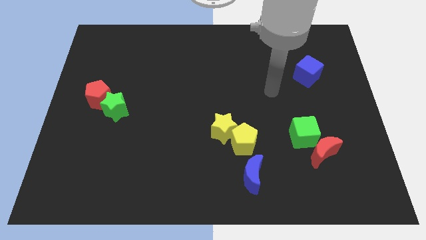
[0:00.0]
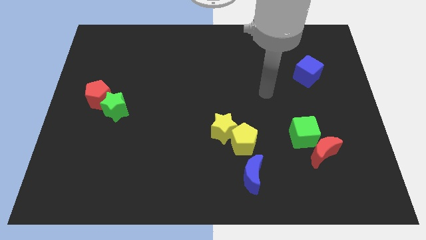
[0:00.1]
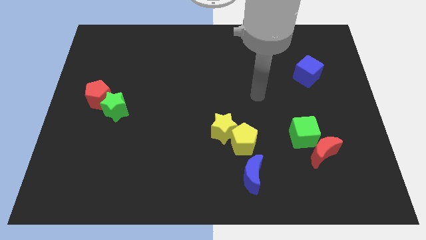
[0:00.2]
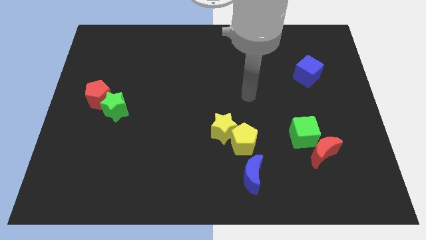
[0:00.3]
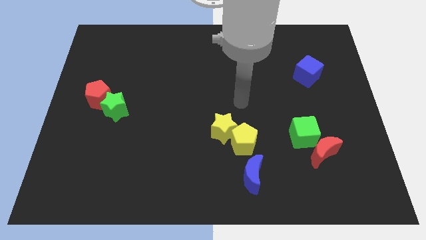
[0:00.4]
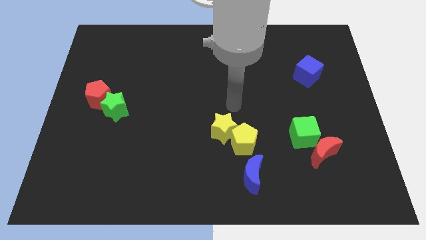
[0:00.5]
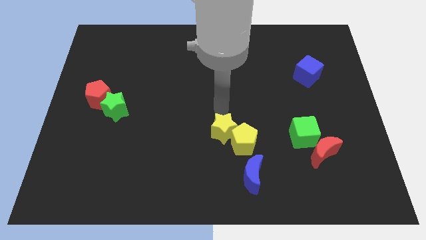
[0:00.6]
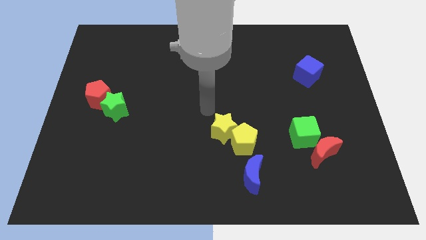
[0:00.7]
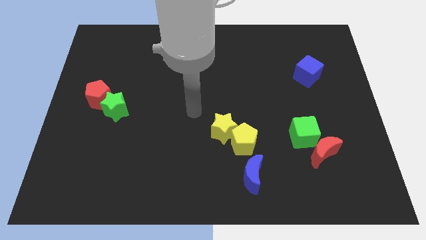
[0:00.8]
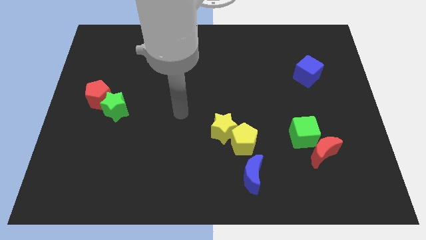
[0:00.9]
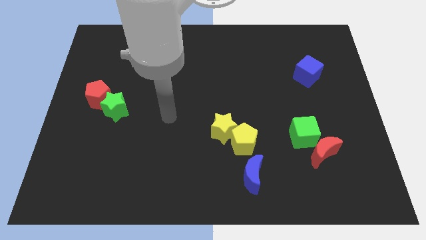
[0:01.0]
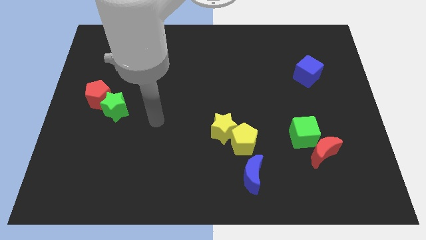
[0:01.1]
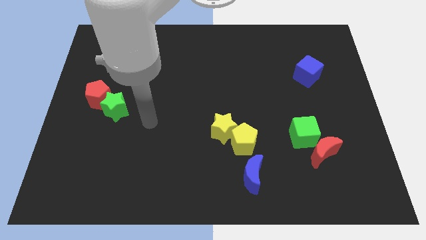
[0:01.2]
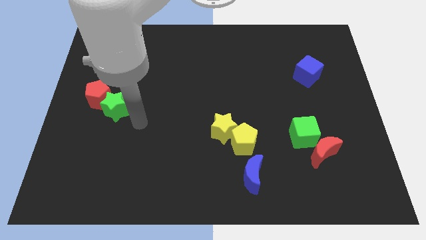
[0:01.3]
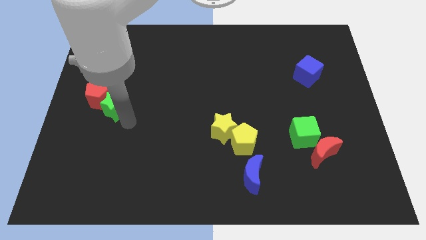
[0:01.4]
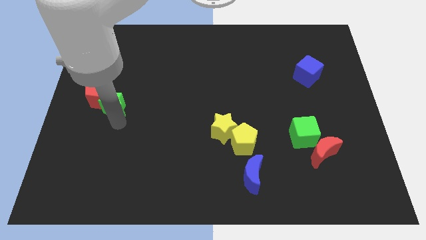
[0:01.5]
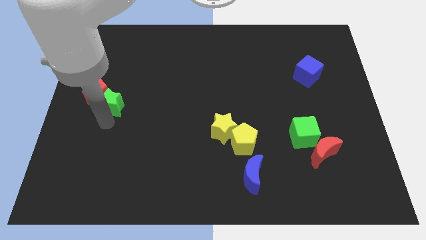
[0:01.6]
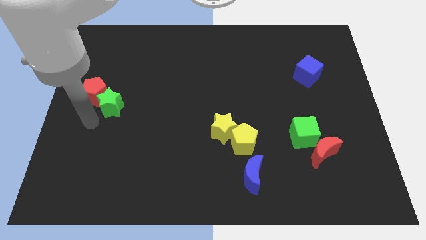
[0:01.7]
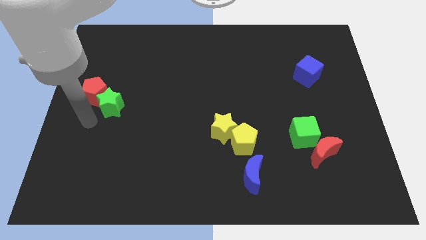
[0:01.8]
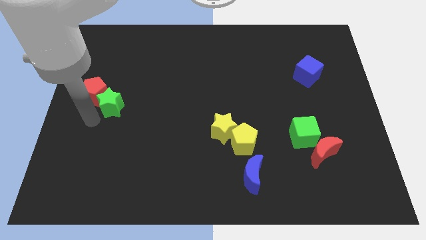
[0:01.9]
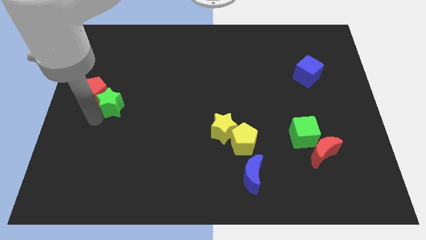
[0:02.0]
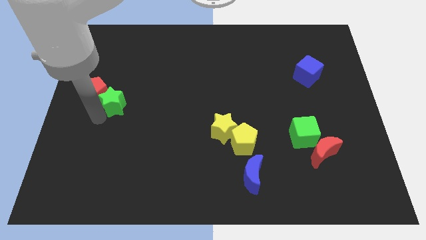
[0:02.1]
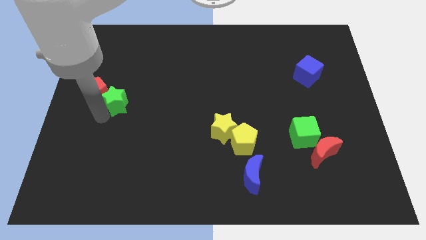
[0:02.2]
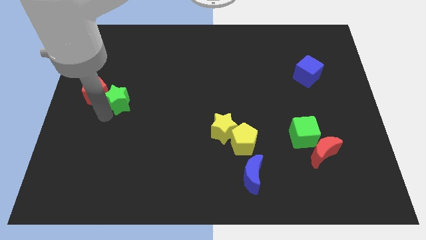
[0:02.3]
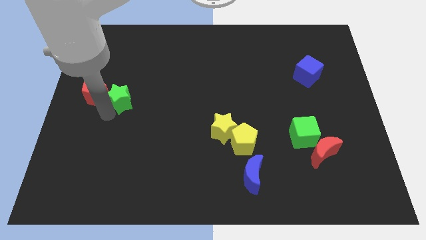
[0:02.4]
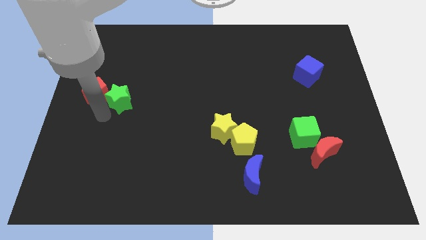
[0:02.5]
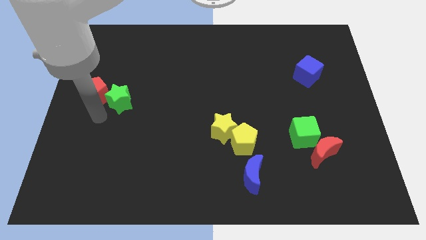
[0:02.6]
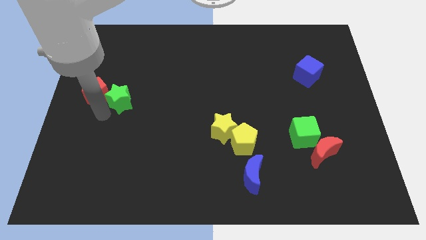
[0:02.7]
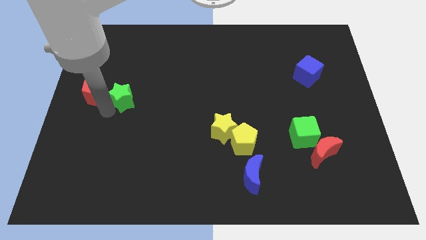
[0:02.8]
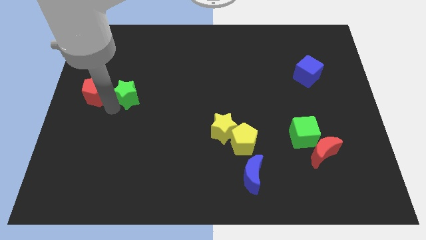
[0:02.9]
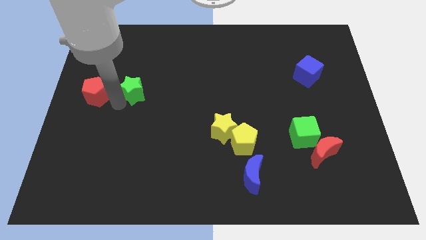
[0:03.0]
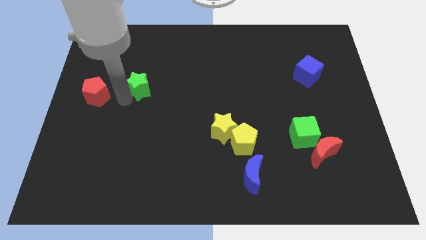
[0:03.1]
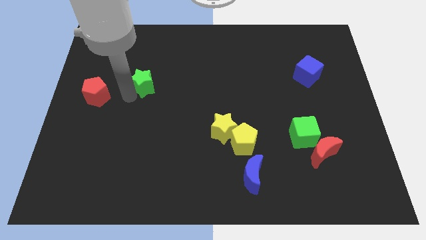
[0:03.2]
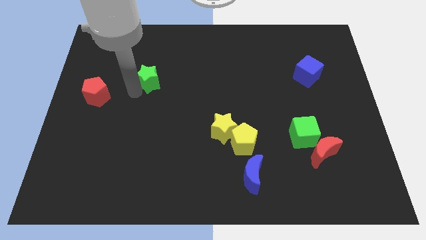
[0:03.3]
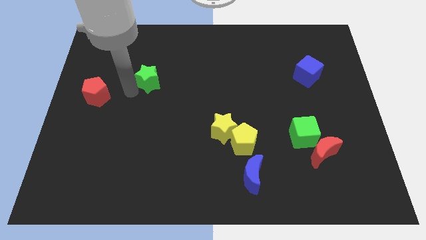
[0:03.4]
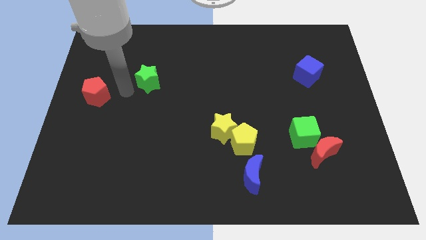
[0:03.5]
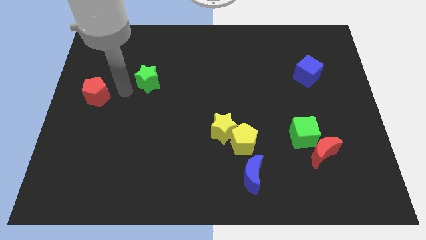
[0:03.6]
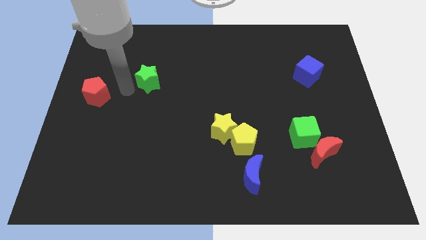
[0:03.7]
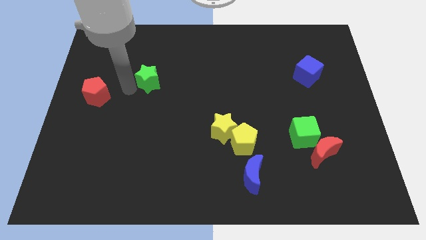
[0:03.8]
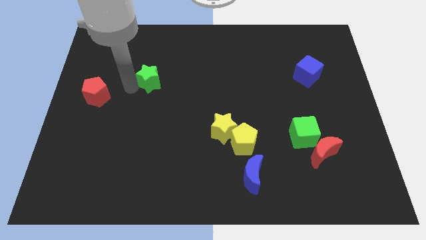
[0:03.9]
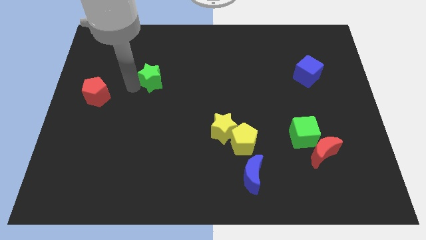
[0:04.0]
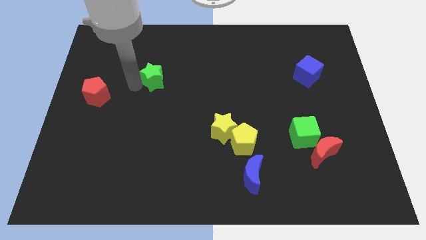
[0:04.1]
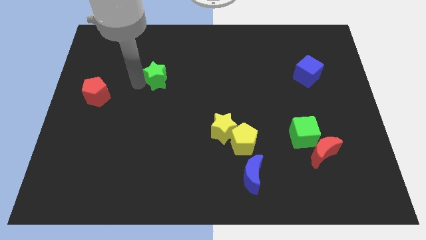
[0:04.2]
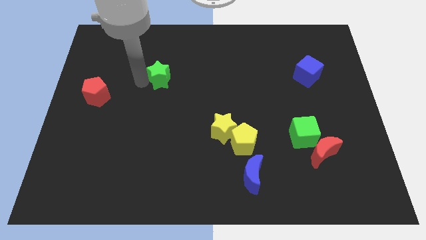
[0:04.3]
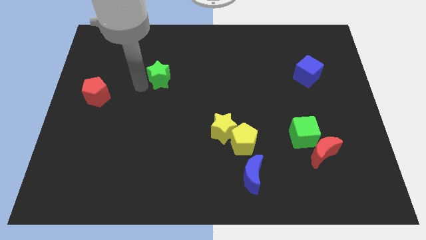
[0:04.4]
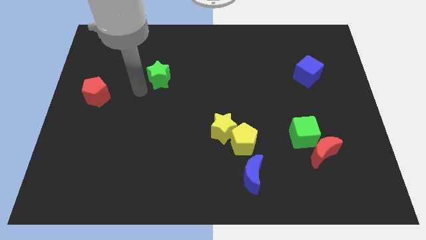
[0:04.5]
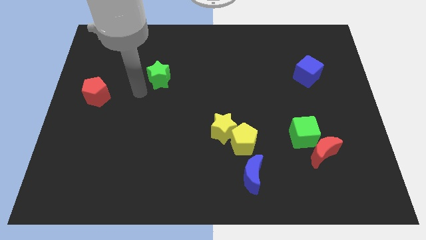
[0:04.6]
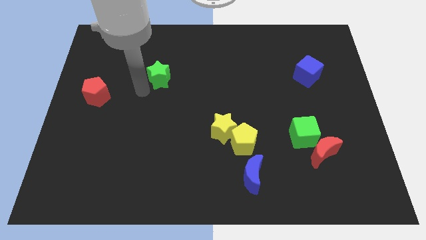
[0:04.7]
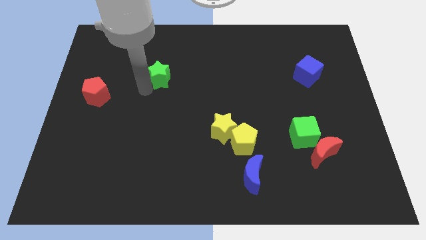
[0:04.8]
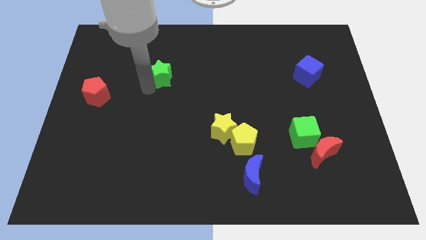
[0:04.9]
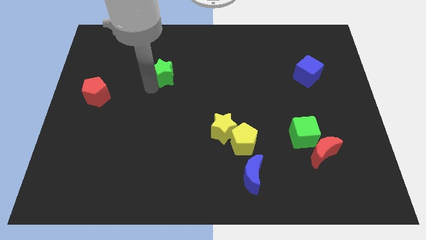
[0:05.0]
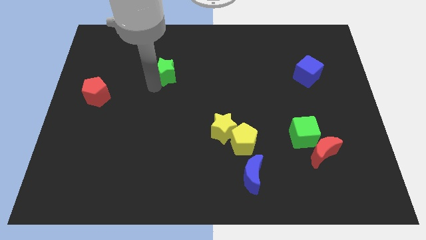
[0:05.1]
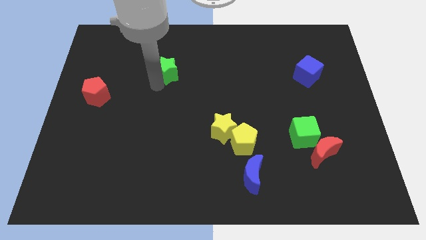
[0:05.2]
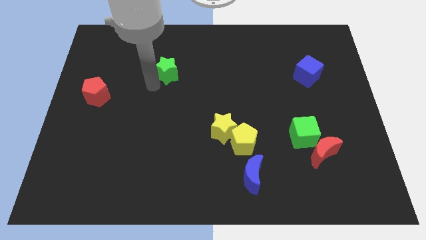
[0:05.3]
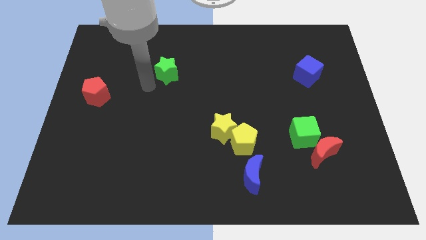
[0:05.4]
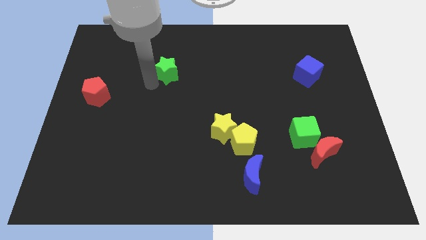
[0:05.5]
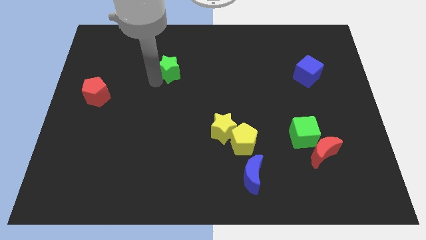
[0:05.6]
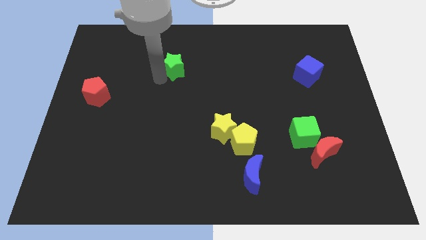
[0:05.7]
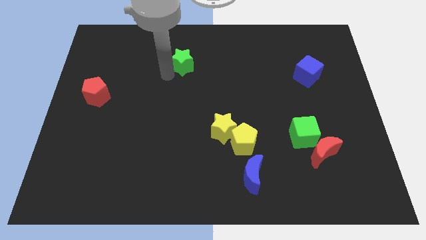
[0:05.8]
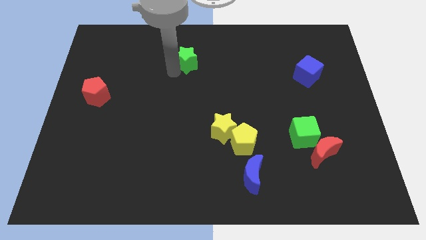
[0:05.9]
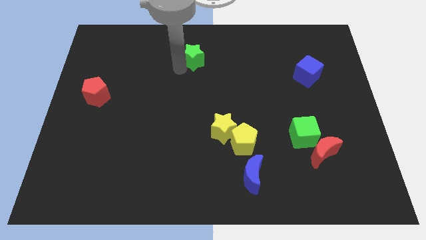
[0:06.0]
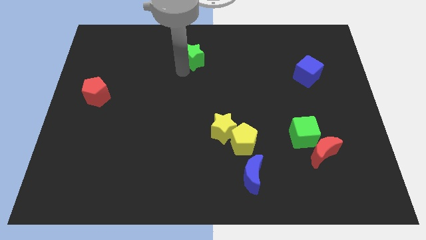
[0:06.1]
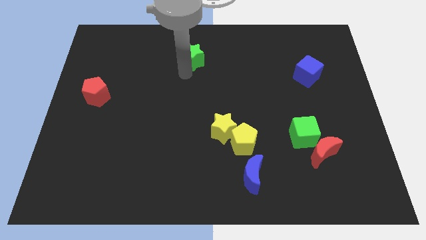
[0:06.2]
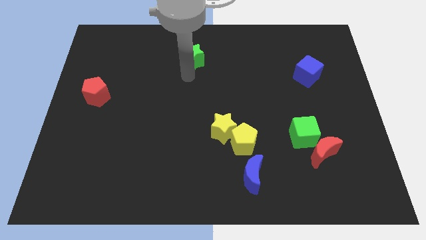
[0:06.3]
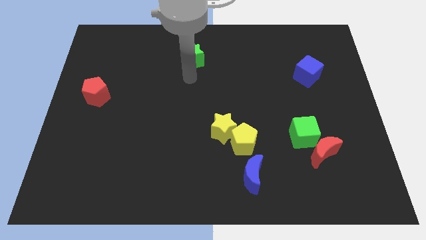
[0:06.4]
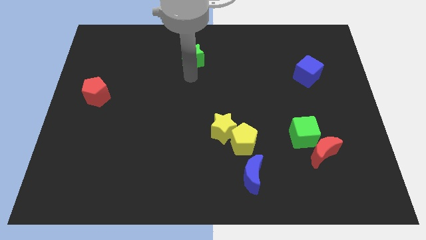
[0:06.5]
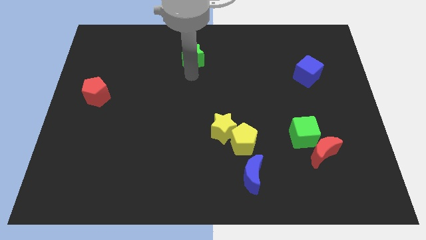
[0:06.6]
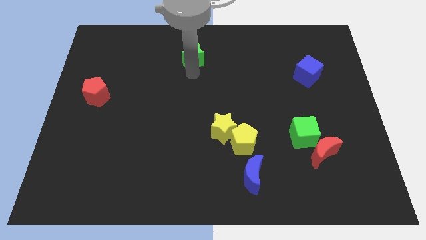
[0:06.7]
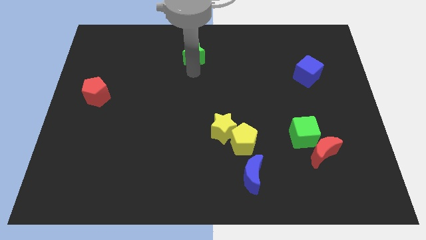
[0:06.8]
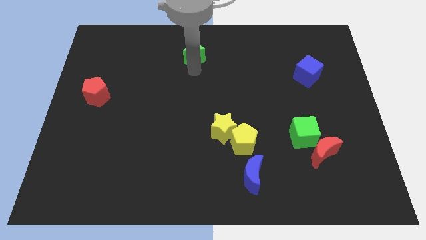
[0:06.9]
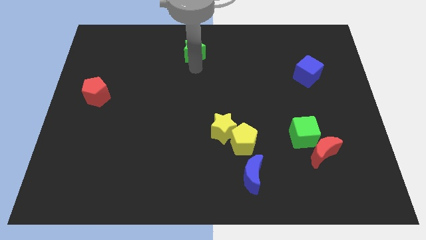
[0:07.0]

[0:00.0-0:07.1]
slide the green star to the top
